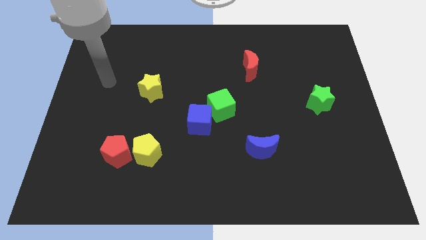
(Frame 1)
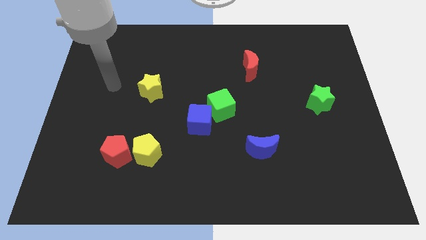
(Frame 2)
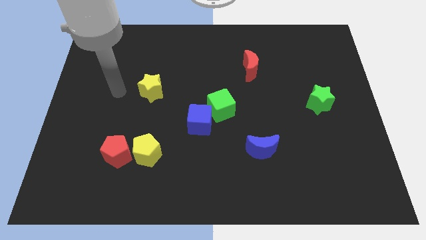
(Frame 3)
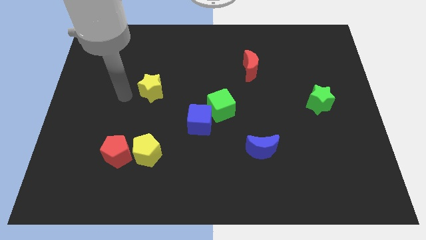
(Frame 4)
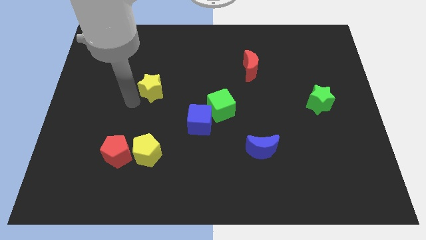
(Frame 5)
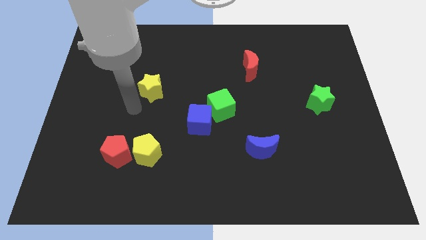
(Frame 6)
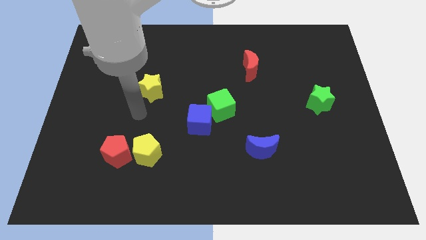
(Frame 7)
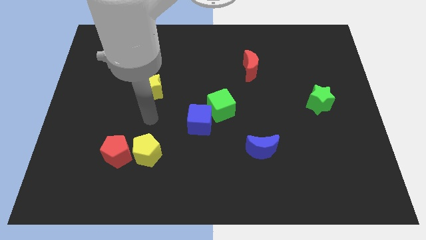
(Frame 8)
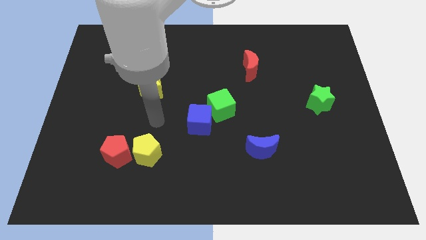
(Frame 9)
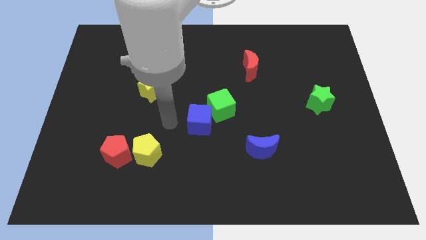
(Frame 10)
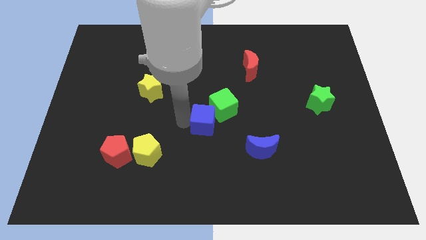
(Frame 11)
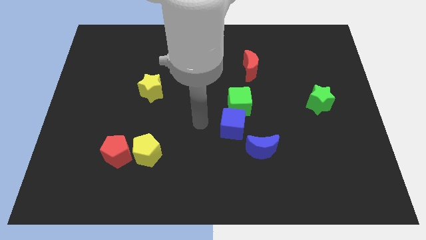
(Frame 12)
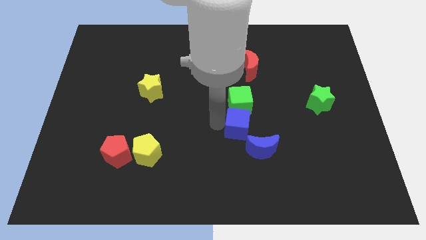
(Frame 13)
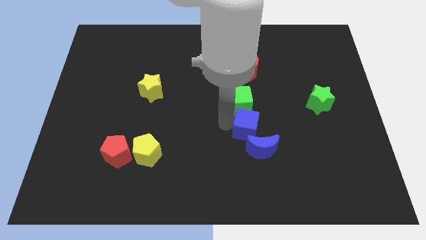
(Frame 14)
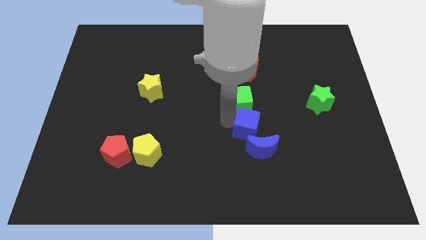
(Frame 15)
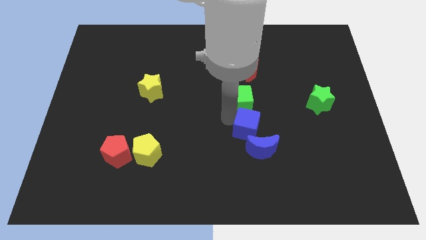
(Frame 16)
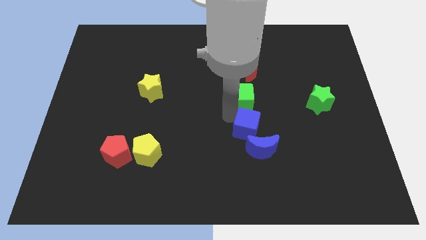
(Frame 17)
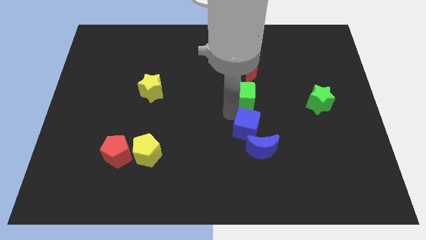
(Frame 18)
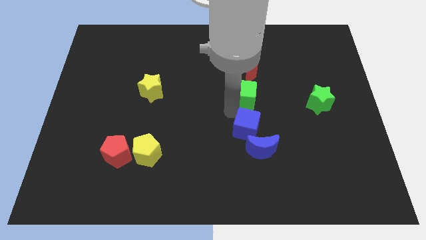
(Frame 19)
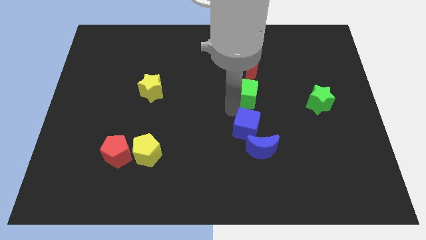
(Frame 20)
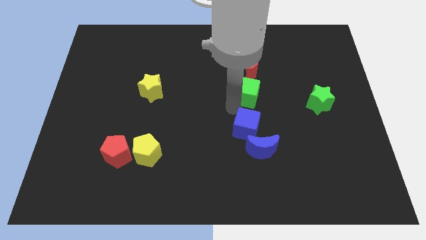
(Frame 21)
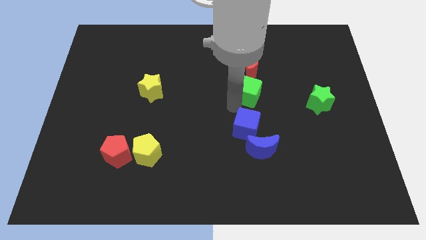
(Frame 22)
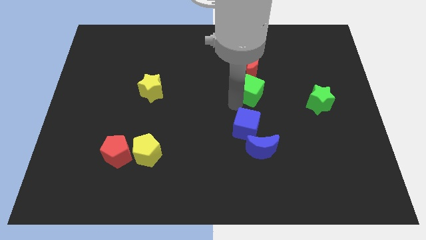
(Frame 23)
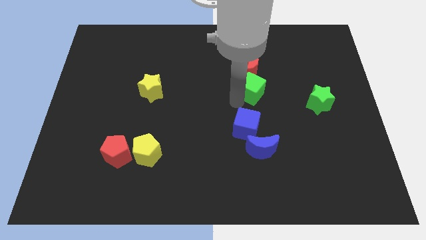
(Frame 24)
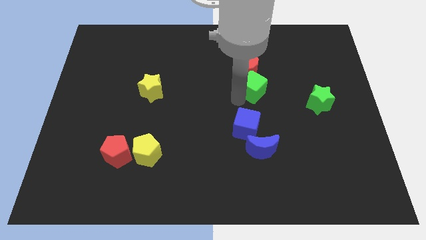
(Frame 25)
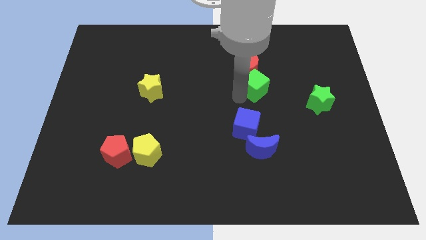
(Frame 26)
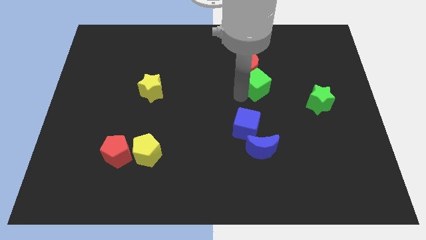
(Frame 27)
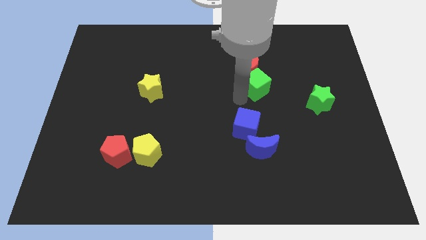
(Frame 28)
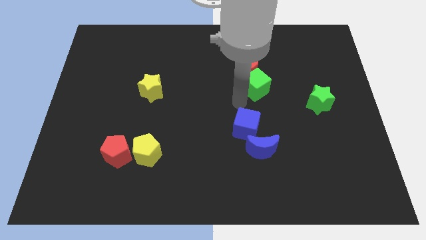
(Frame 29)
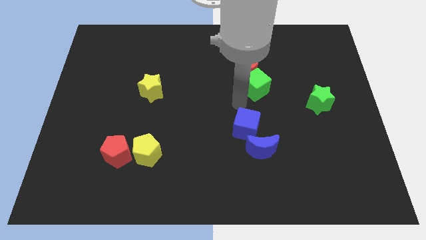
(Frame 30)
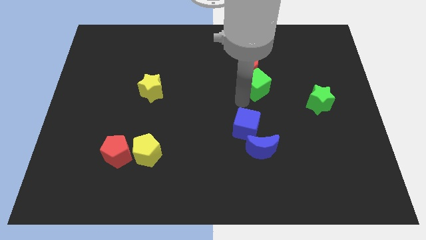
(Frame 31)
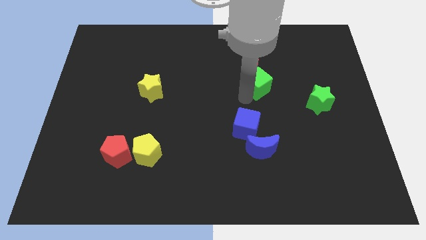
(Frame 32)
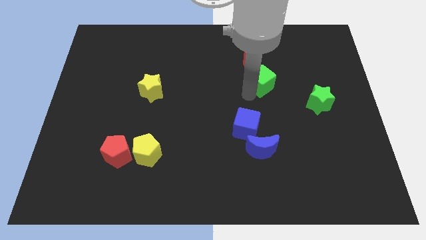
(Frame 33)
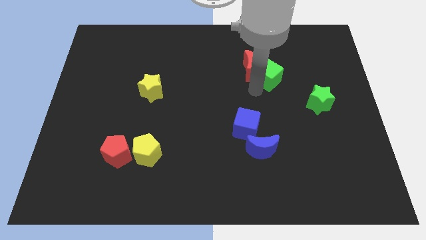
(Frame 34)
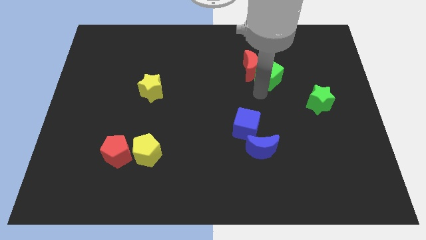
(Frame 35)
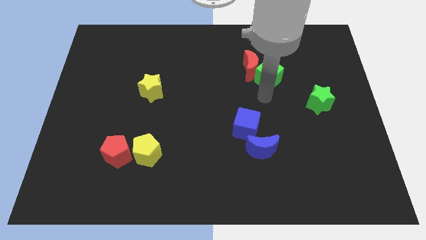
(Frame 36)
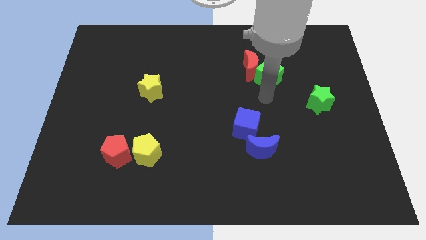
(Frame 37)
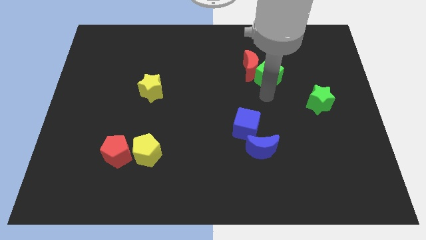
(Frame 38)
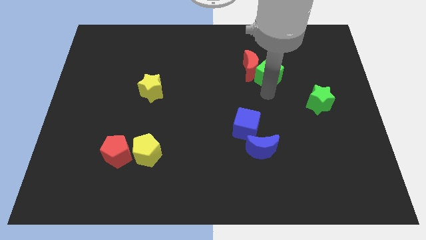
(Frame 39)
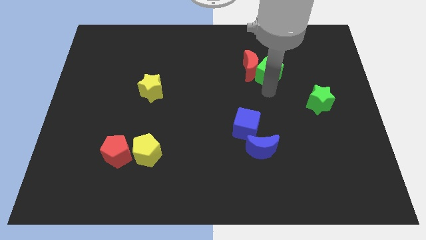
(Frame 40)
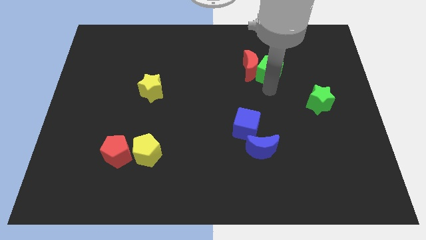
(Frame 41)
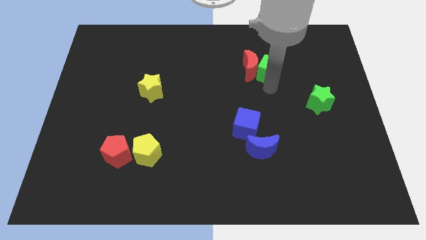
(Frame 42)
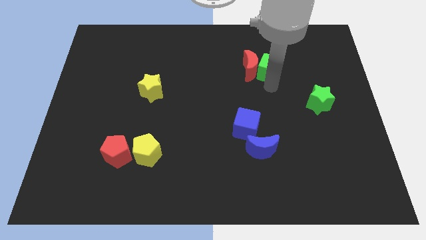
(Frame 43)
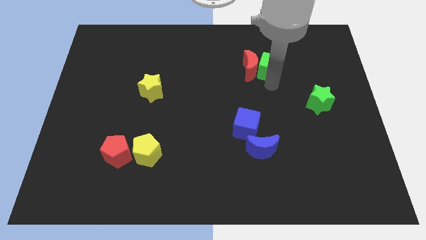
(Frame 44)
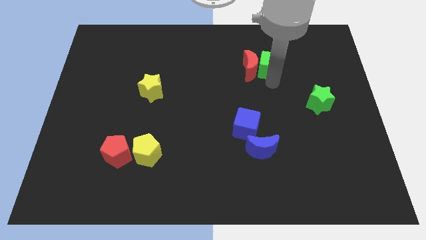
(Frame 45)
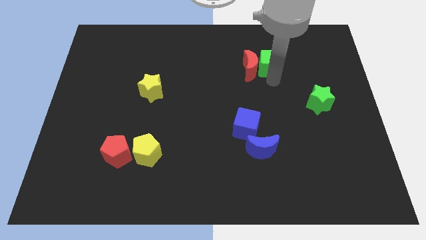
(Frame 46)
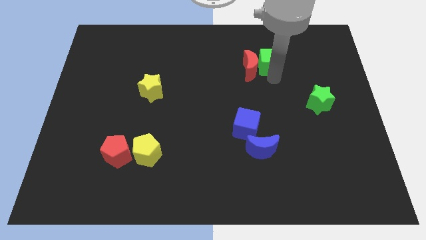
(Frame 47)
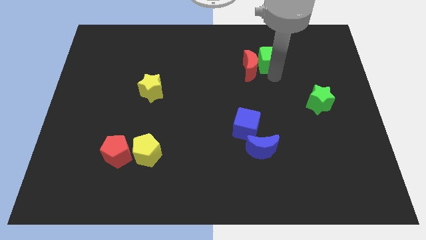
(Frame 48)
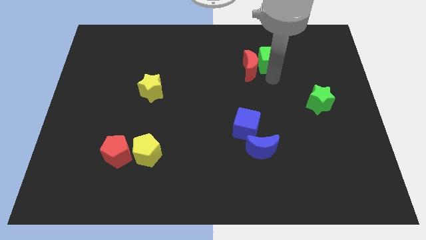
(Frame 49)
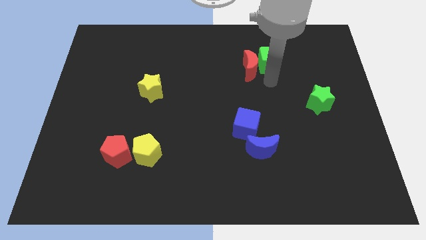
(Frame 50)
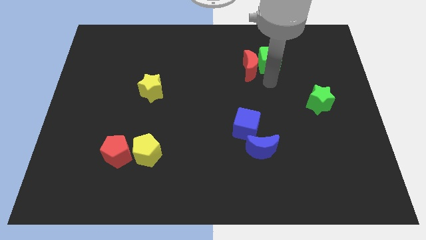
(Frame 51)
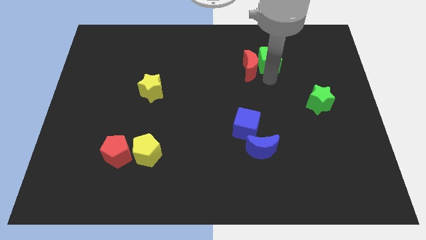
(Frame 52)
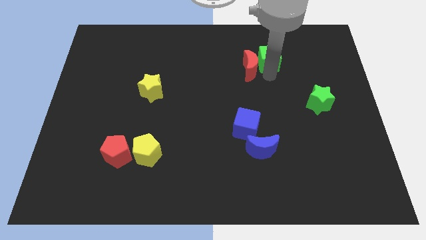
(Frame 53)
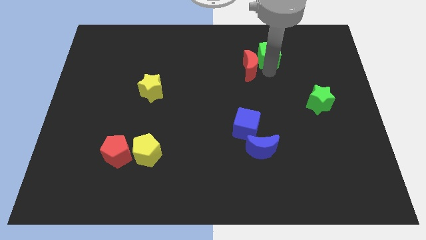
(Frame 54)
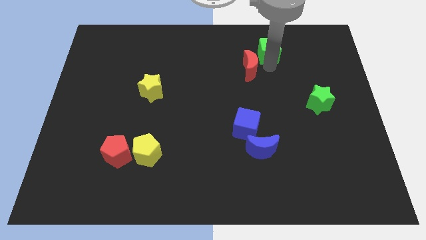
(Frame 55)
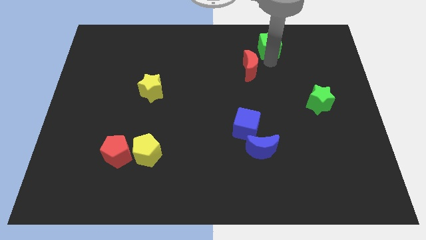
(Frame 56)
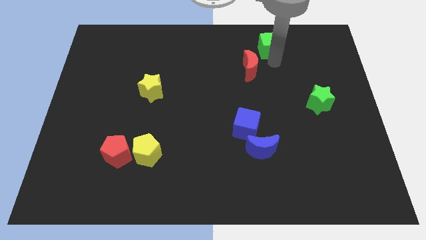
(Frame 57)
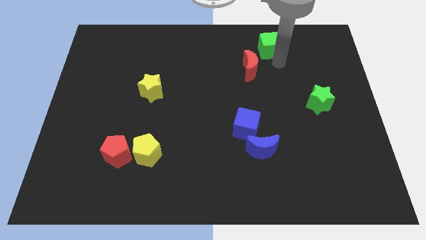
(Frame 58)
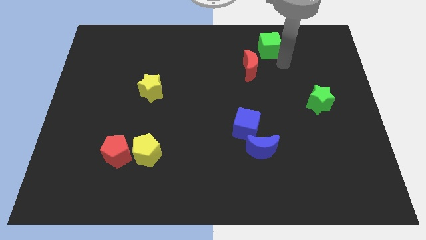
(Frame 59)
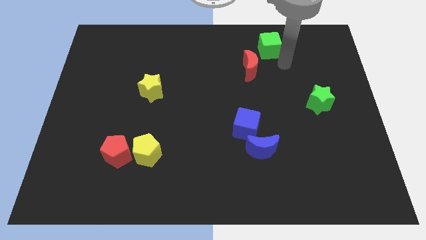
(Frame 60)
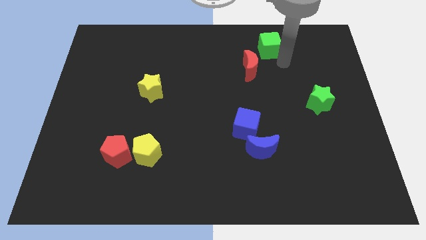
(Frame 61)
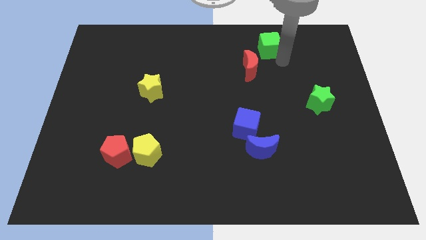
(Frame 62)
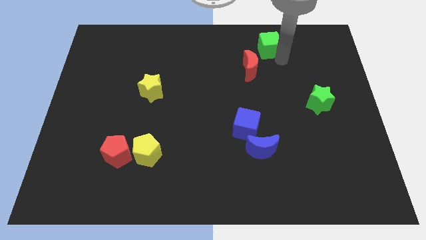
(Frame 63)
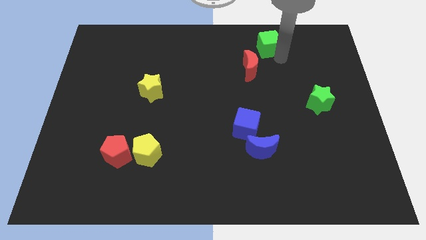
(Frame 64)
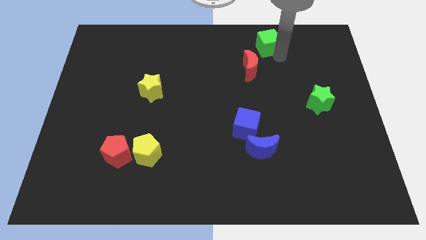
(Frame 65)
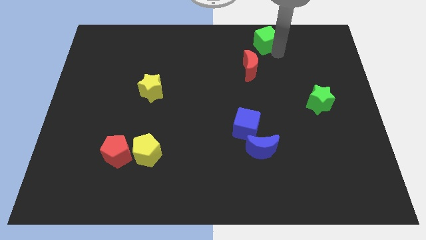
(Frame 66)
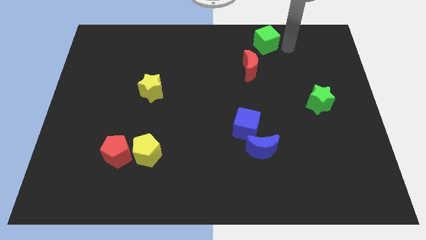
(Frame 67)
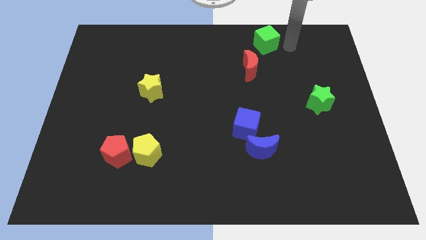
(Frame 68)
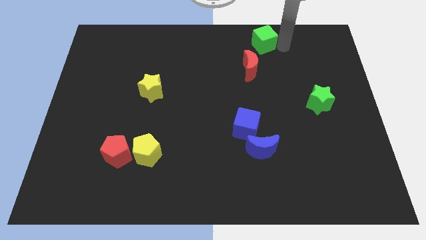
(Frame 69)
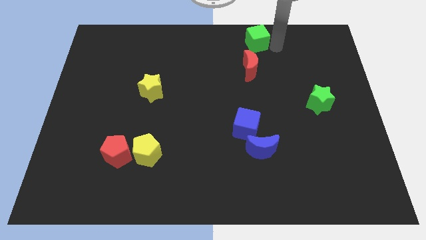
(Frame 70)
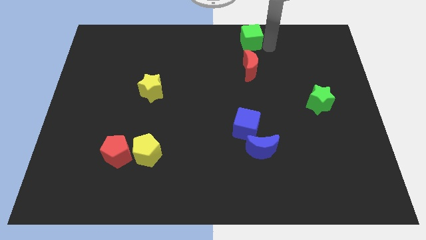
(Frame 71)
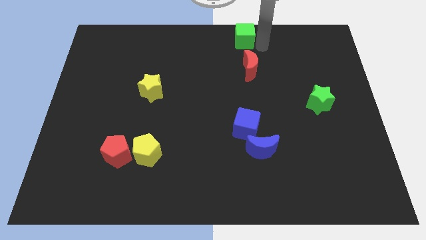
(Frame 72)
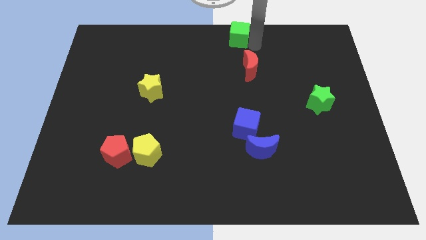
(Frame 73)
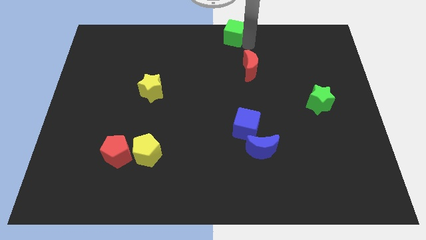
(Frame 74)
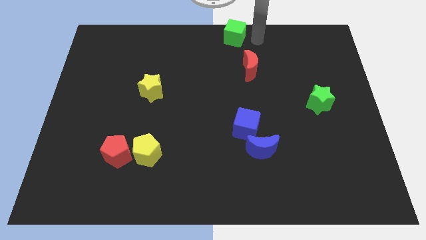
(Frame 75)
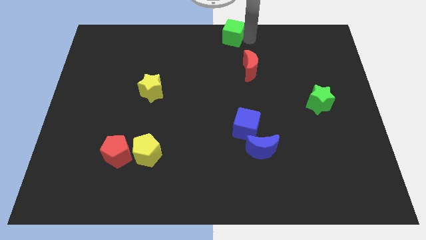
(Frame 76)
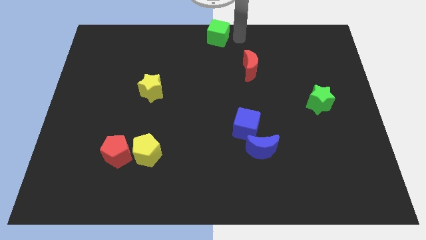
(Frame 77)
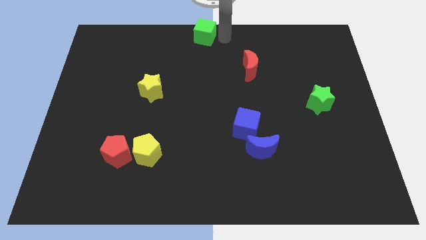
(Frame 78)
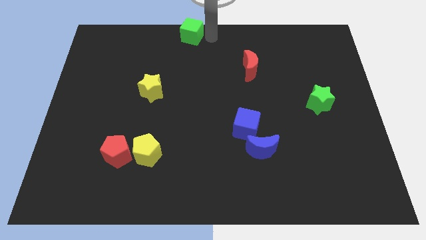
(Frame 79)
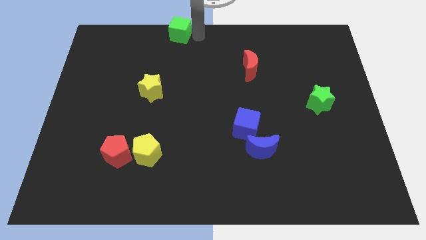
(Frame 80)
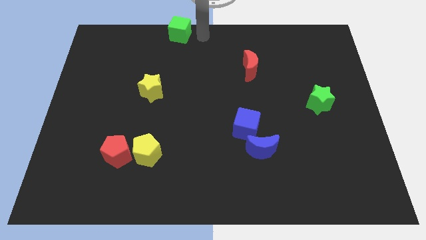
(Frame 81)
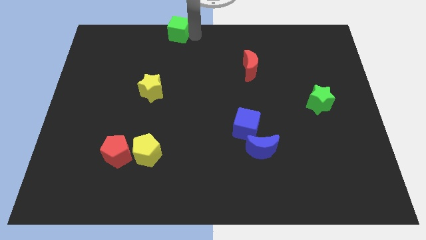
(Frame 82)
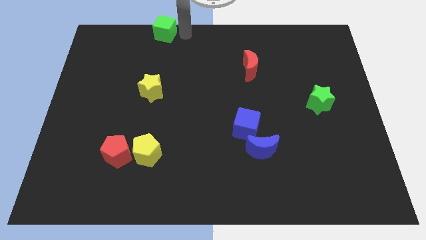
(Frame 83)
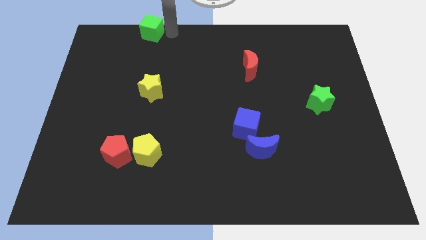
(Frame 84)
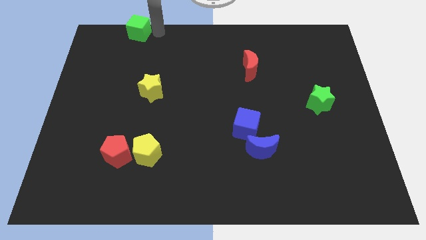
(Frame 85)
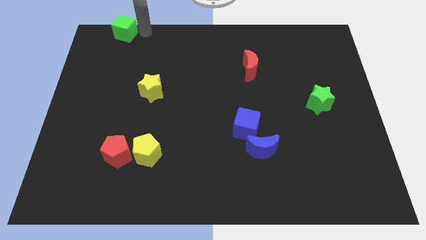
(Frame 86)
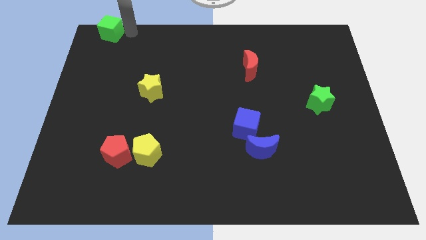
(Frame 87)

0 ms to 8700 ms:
slide the green cube to the top left corner
